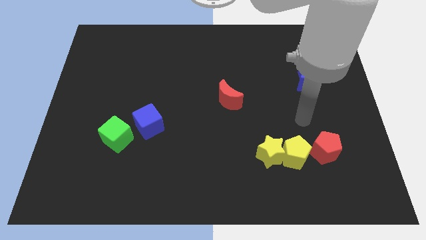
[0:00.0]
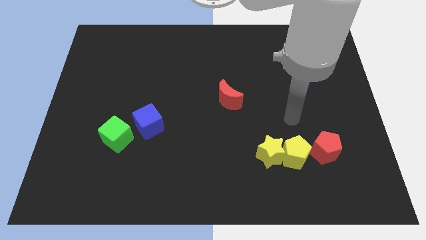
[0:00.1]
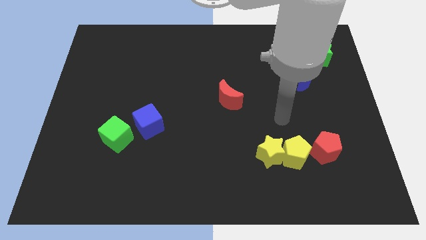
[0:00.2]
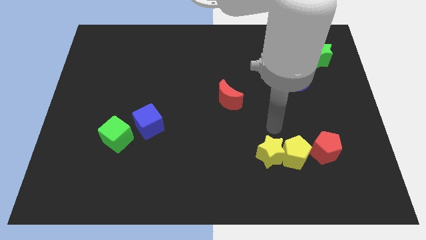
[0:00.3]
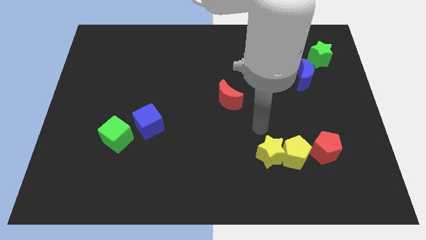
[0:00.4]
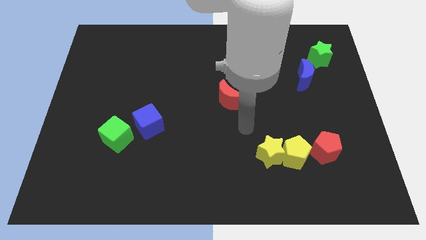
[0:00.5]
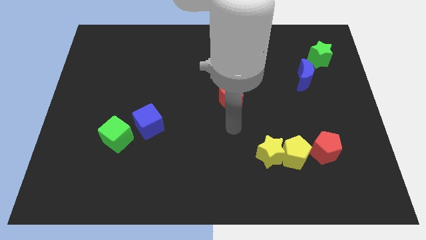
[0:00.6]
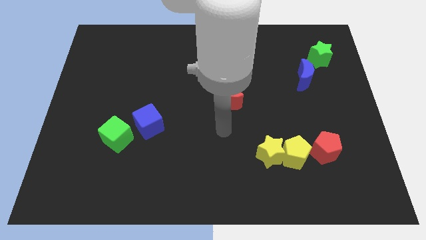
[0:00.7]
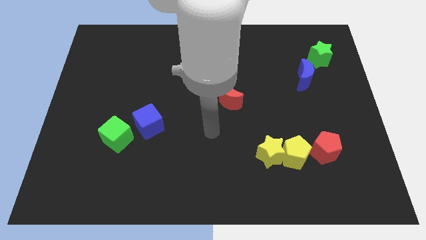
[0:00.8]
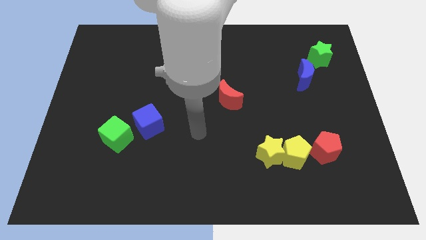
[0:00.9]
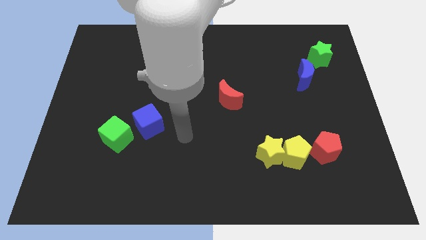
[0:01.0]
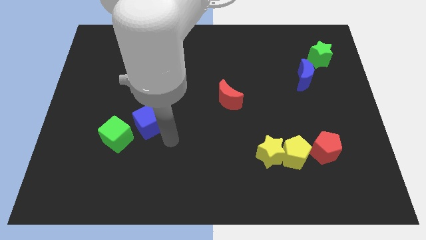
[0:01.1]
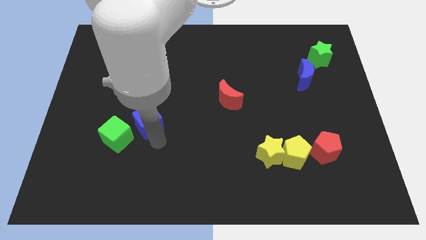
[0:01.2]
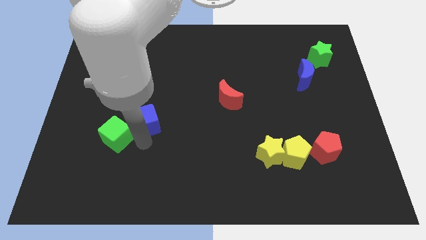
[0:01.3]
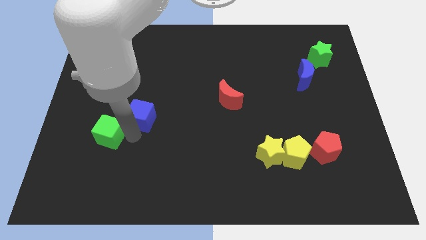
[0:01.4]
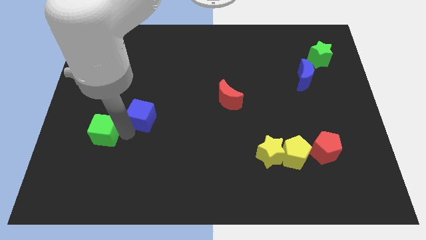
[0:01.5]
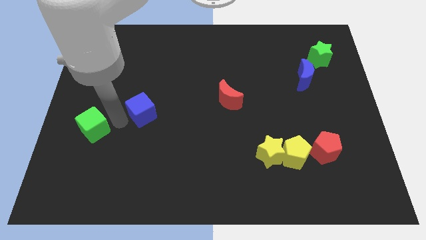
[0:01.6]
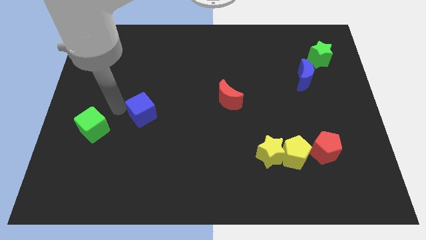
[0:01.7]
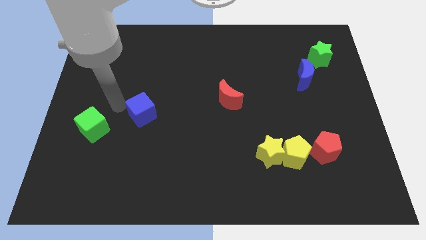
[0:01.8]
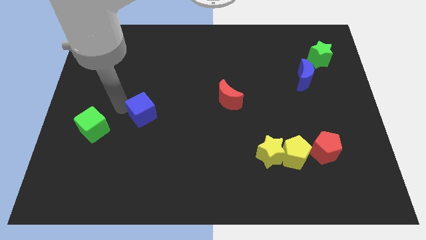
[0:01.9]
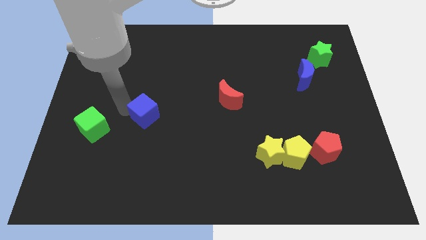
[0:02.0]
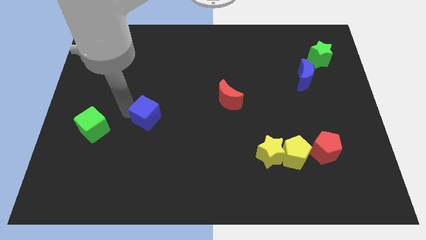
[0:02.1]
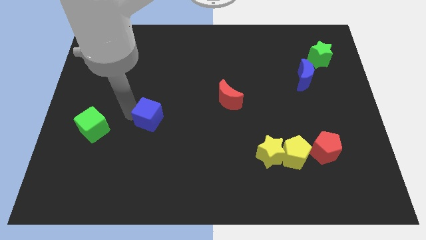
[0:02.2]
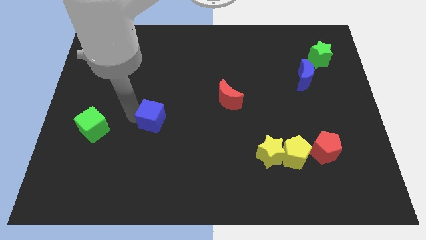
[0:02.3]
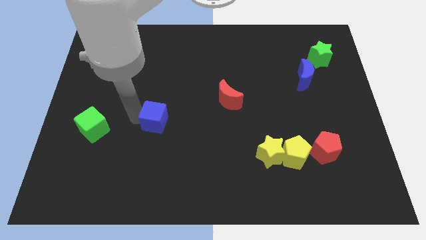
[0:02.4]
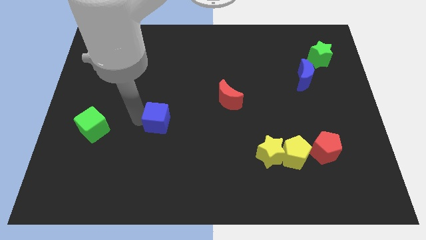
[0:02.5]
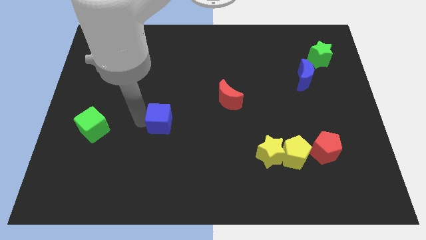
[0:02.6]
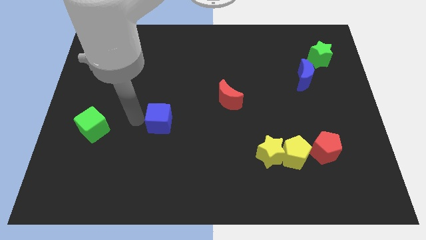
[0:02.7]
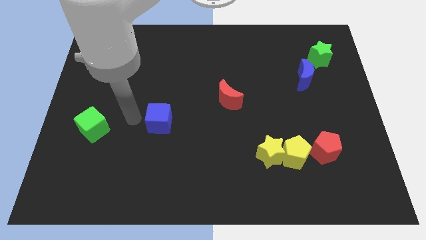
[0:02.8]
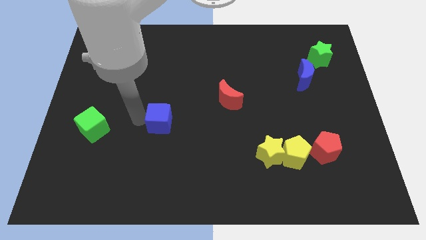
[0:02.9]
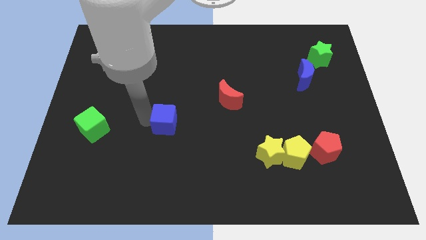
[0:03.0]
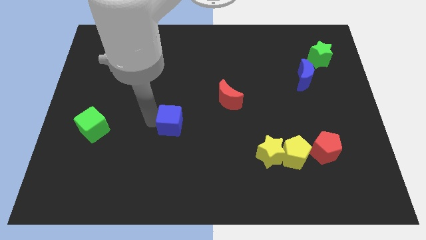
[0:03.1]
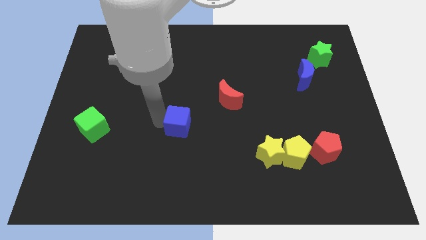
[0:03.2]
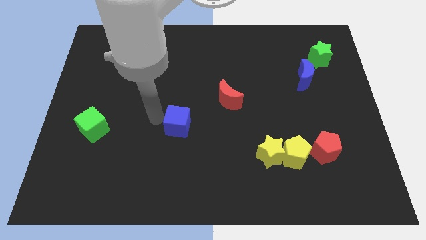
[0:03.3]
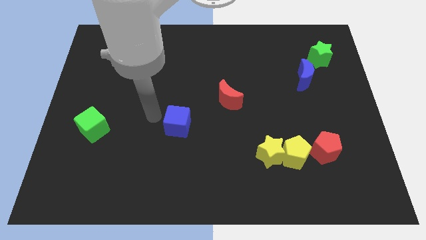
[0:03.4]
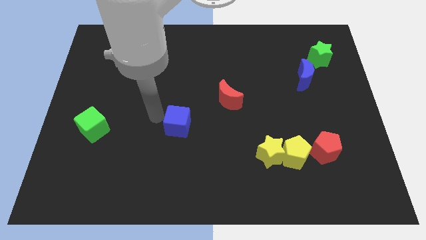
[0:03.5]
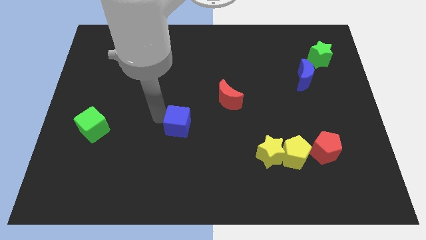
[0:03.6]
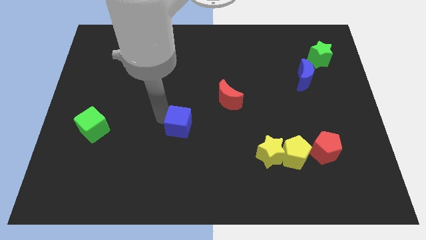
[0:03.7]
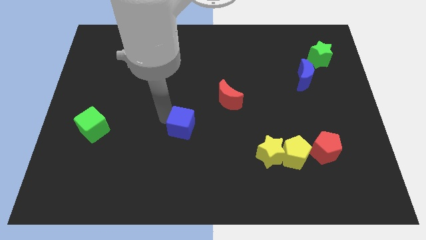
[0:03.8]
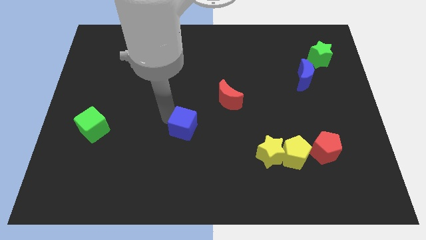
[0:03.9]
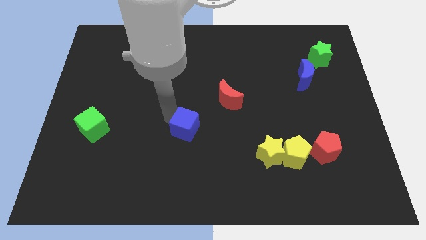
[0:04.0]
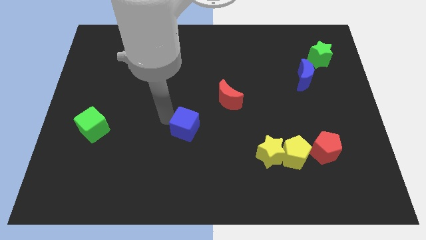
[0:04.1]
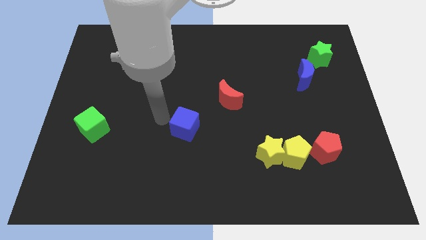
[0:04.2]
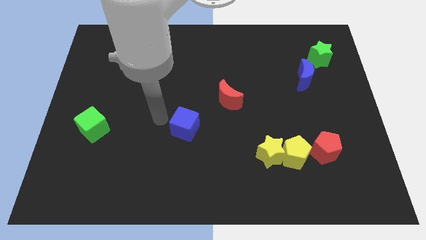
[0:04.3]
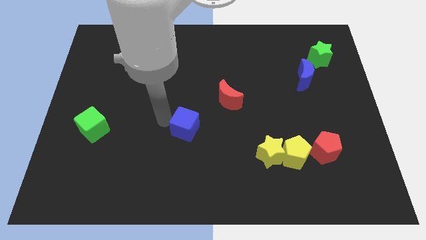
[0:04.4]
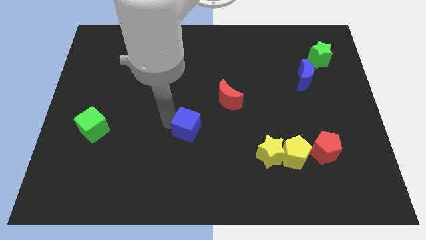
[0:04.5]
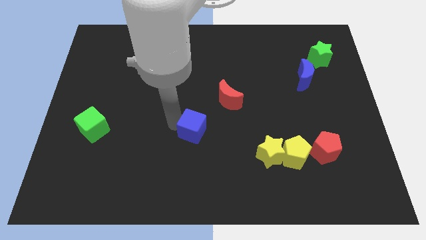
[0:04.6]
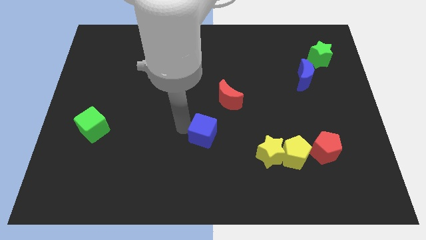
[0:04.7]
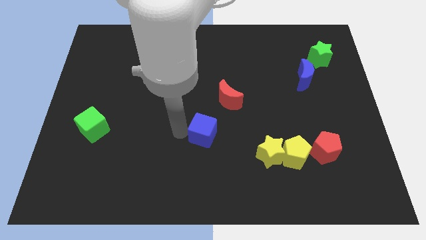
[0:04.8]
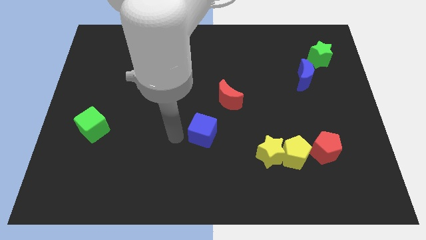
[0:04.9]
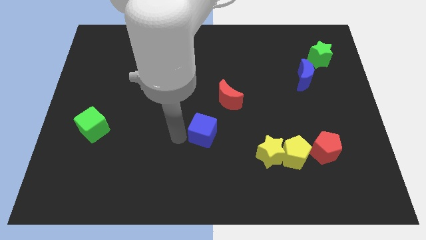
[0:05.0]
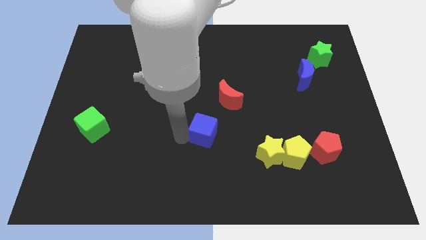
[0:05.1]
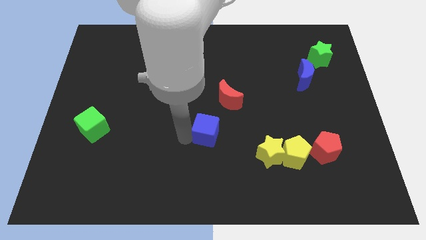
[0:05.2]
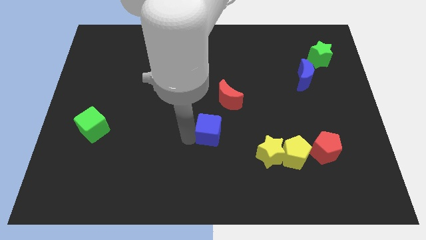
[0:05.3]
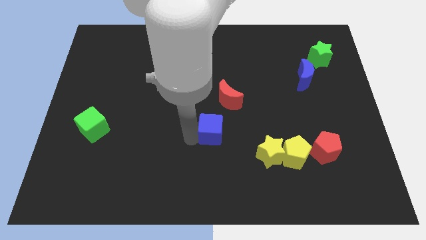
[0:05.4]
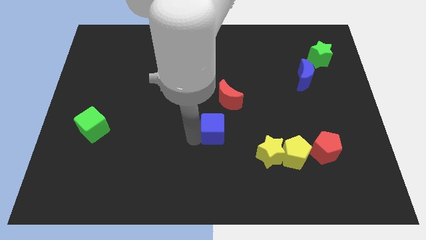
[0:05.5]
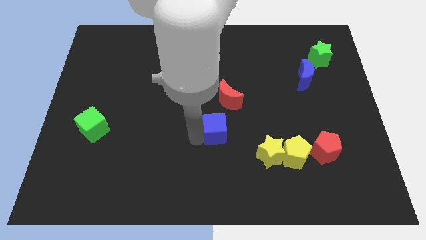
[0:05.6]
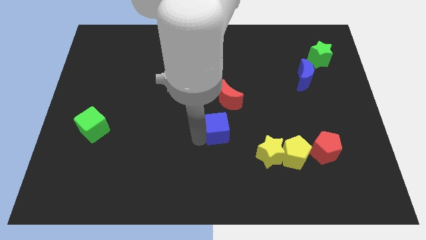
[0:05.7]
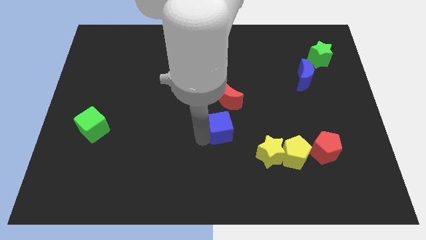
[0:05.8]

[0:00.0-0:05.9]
put the blue cube to the top left of the yellow star

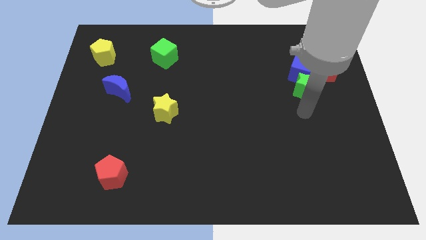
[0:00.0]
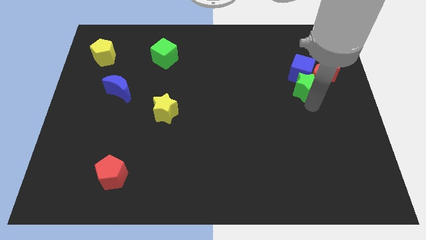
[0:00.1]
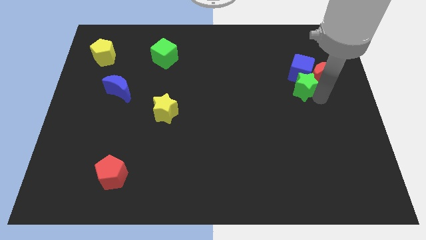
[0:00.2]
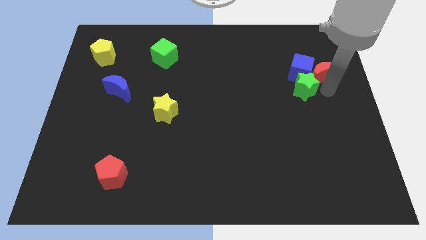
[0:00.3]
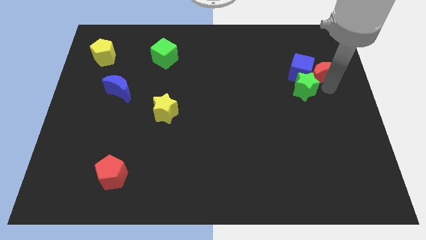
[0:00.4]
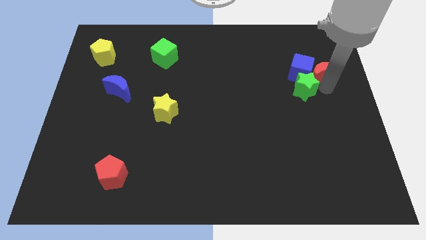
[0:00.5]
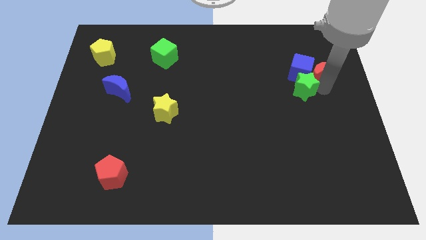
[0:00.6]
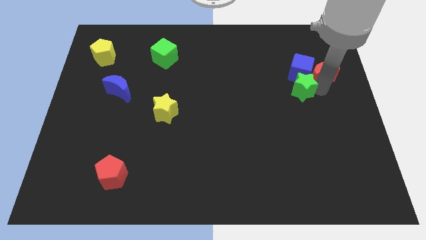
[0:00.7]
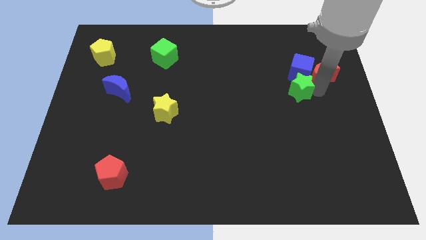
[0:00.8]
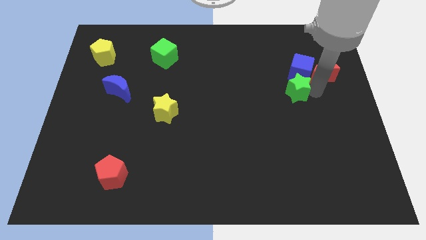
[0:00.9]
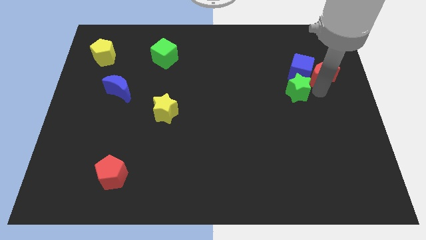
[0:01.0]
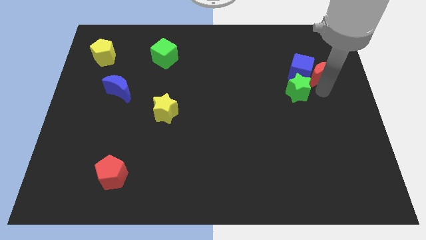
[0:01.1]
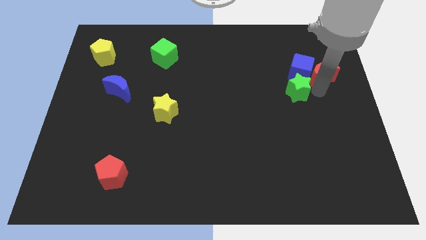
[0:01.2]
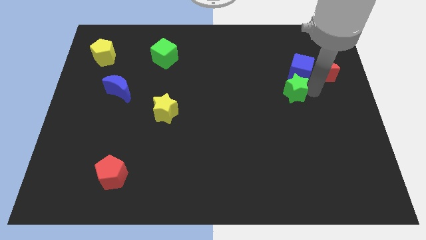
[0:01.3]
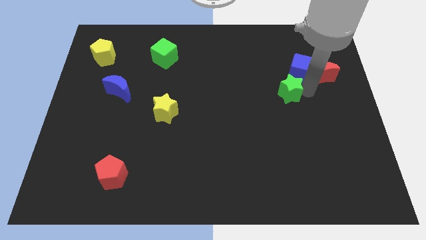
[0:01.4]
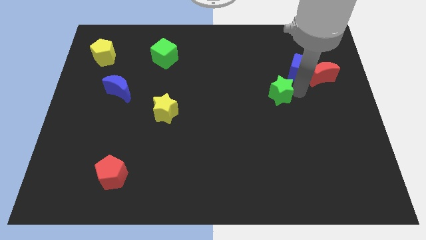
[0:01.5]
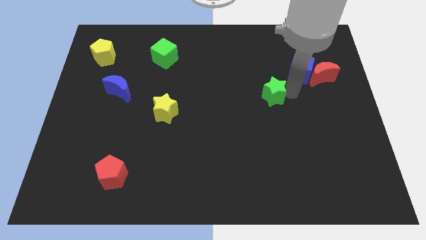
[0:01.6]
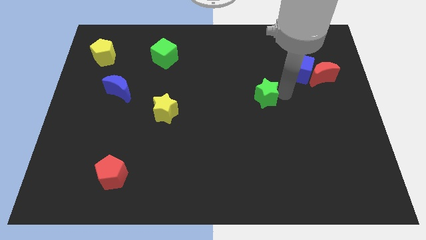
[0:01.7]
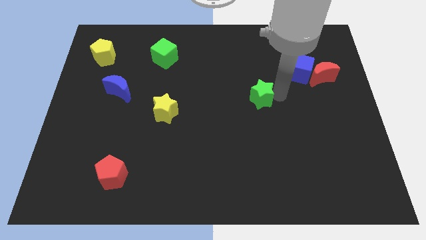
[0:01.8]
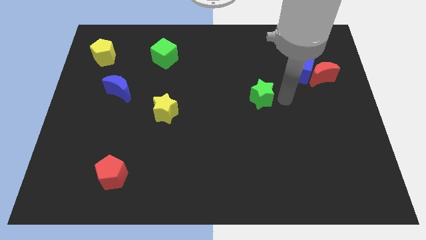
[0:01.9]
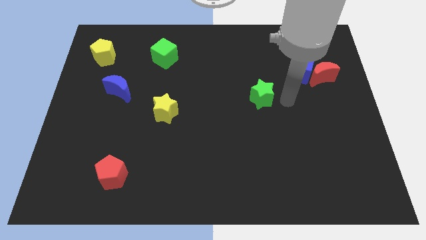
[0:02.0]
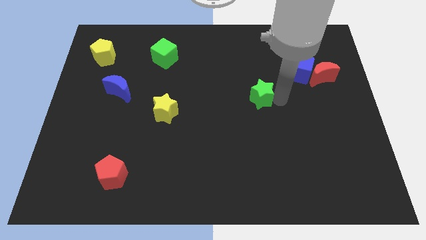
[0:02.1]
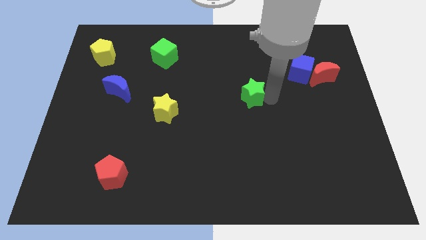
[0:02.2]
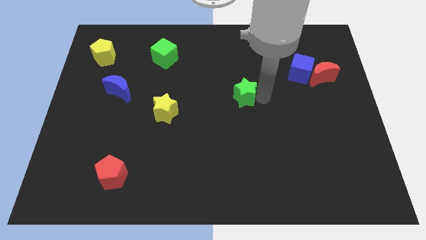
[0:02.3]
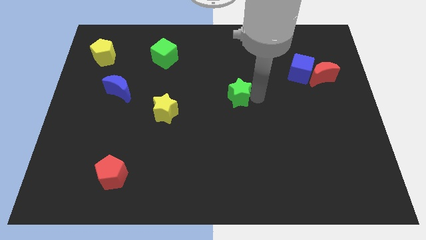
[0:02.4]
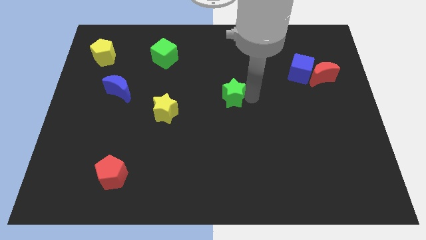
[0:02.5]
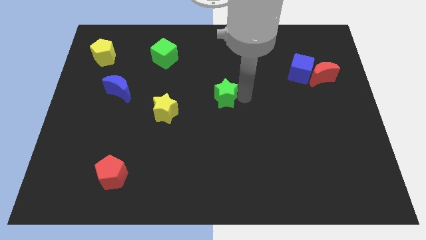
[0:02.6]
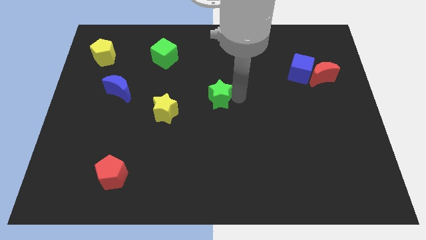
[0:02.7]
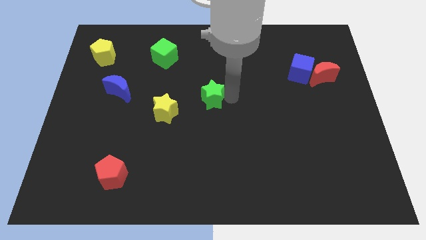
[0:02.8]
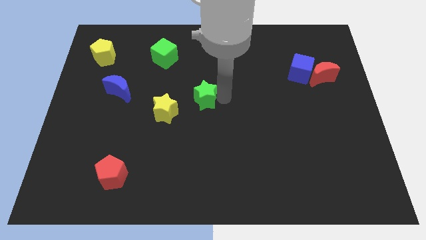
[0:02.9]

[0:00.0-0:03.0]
slide the green star to the top right side of the yellow star
